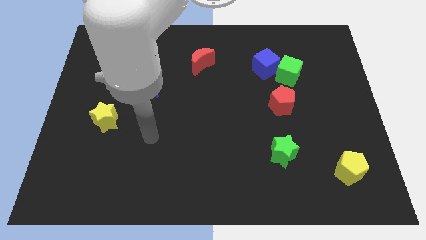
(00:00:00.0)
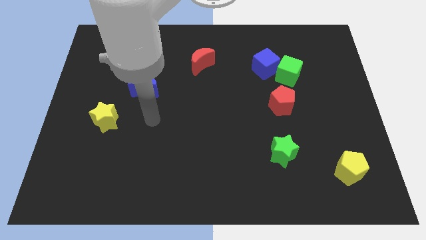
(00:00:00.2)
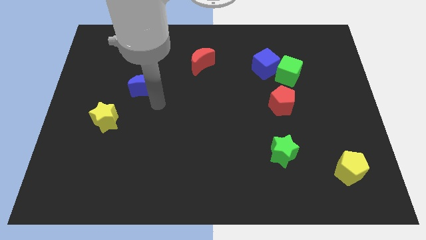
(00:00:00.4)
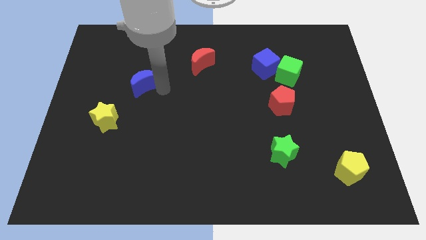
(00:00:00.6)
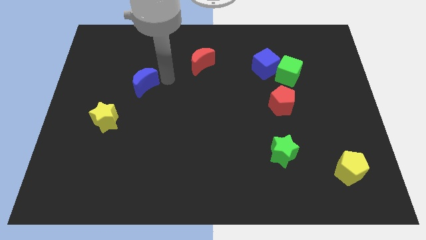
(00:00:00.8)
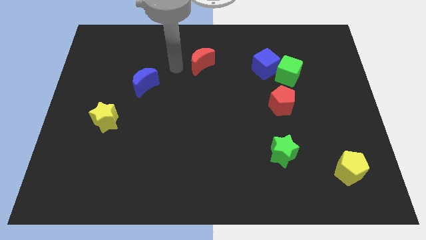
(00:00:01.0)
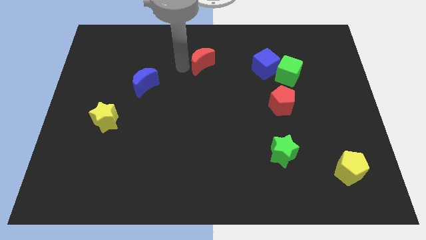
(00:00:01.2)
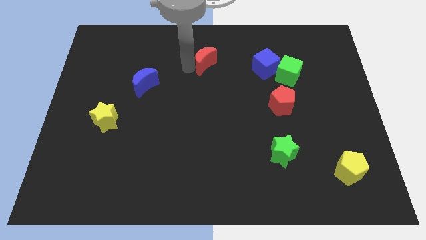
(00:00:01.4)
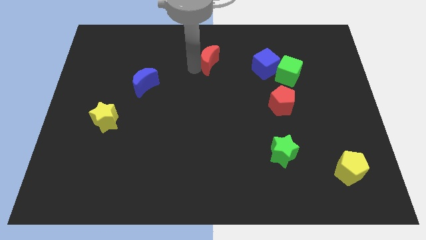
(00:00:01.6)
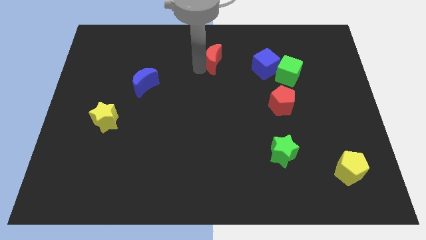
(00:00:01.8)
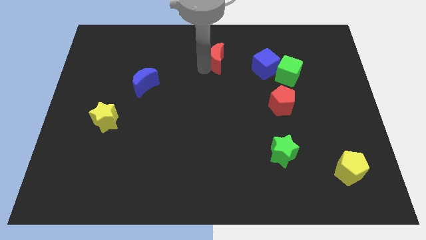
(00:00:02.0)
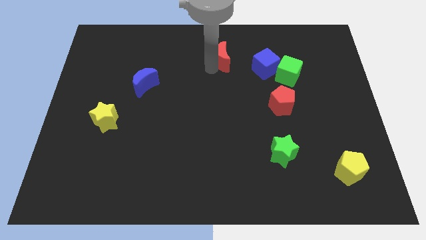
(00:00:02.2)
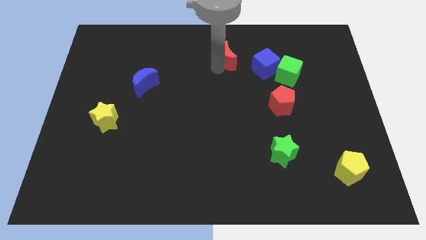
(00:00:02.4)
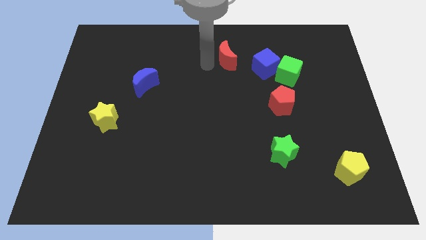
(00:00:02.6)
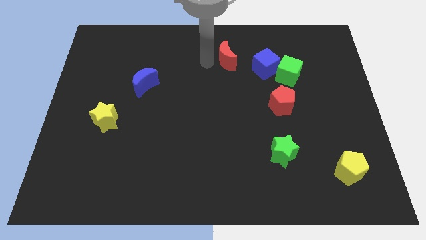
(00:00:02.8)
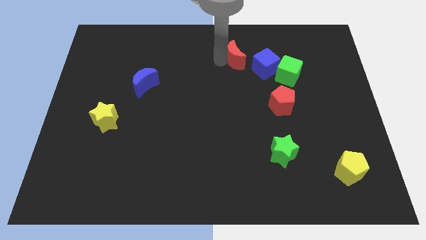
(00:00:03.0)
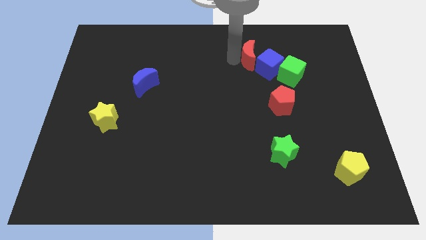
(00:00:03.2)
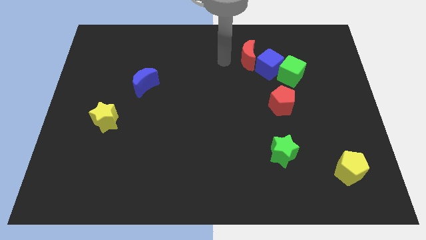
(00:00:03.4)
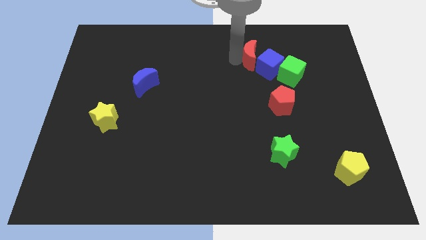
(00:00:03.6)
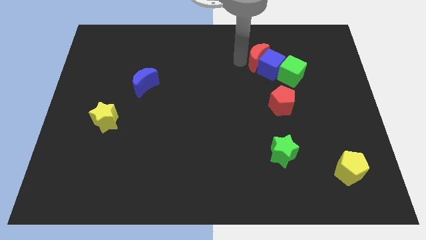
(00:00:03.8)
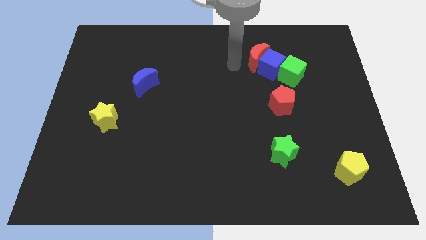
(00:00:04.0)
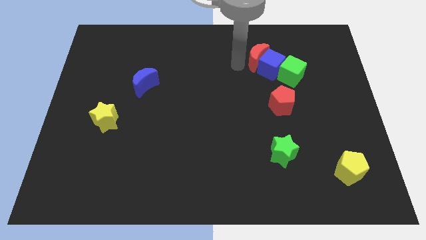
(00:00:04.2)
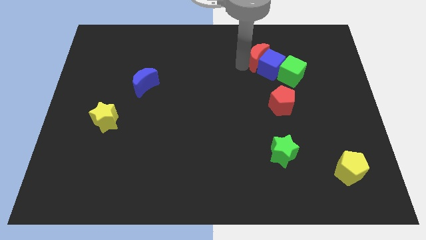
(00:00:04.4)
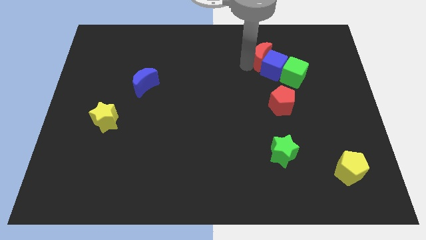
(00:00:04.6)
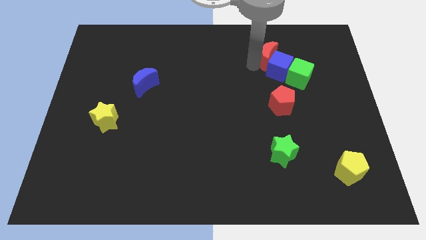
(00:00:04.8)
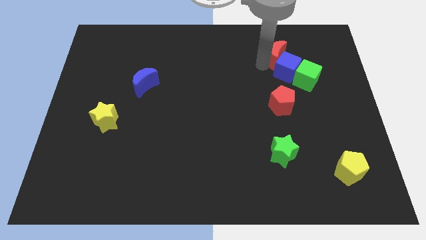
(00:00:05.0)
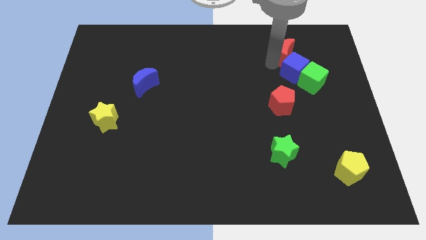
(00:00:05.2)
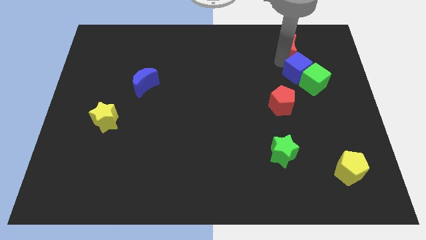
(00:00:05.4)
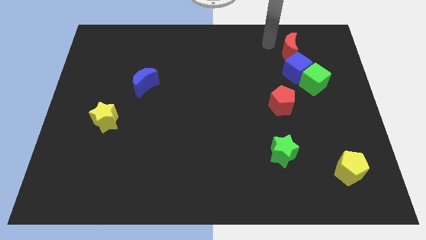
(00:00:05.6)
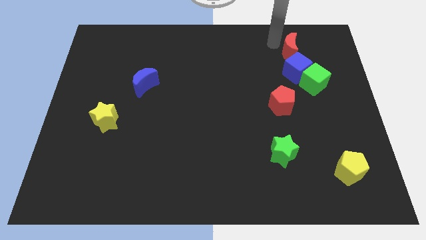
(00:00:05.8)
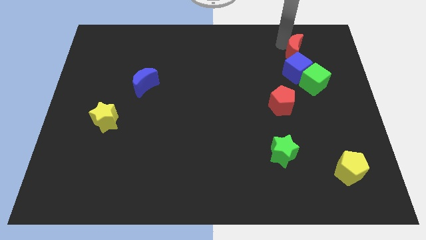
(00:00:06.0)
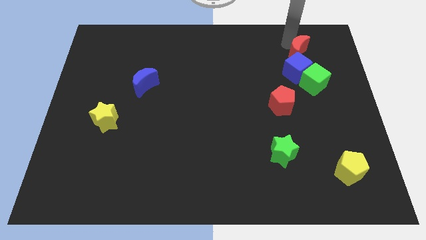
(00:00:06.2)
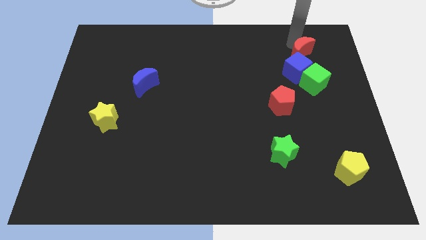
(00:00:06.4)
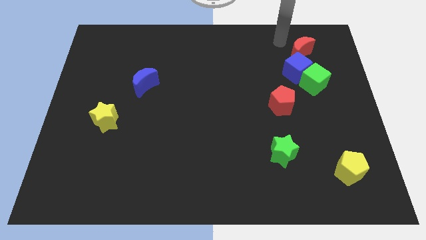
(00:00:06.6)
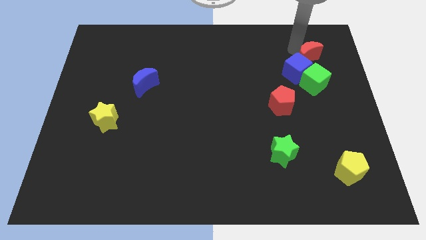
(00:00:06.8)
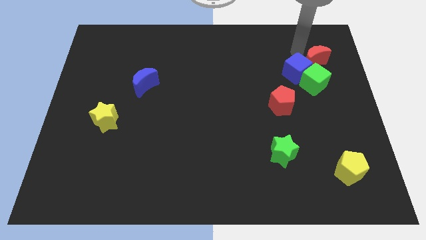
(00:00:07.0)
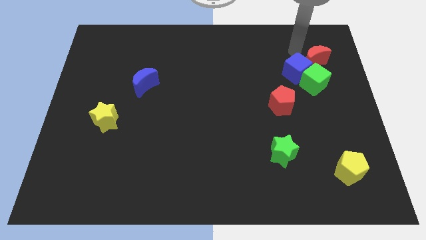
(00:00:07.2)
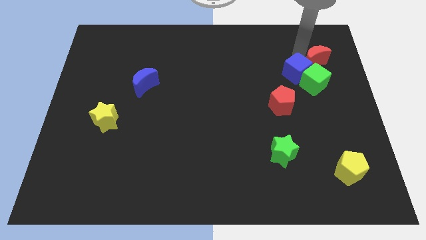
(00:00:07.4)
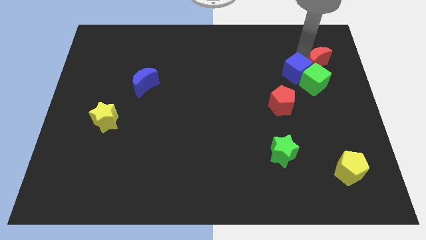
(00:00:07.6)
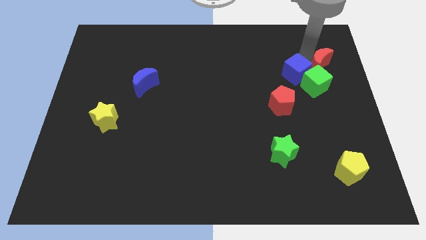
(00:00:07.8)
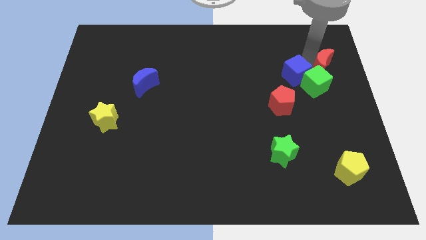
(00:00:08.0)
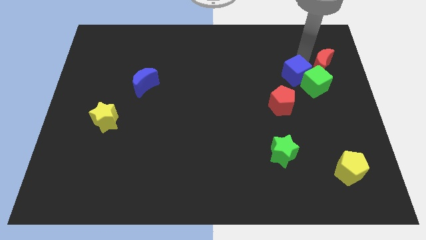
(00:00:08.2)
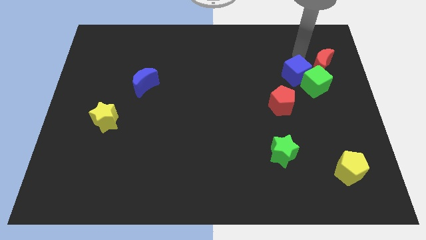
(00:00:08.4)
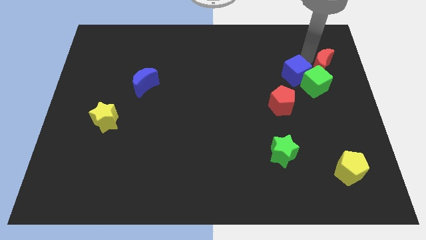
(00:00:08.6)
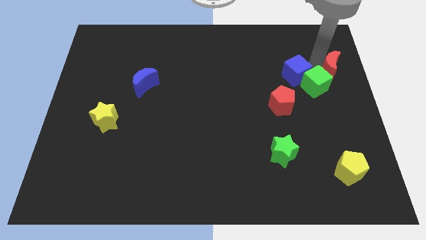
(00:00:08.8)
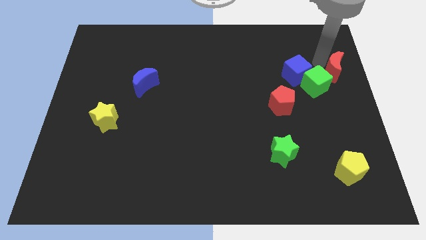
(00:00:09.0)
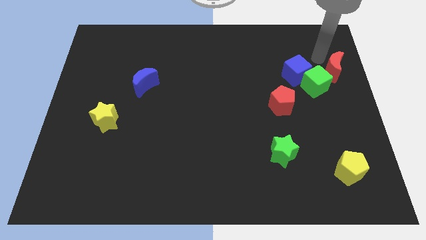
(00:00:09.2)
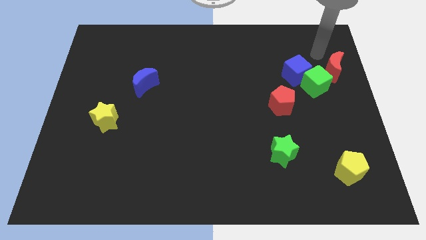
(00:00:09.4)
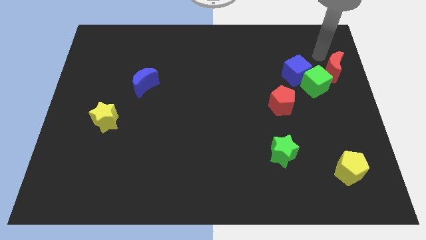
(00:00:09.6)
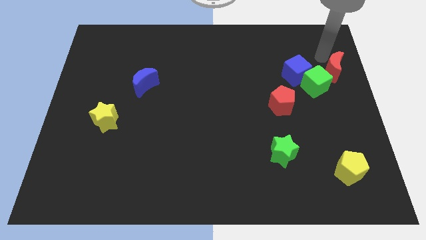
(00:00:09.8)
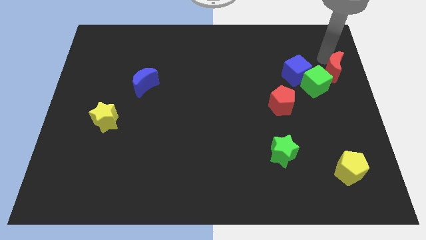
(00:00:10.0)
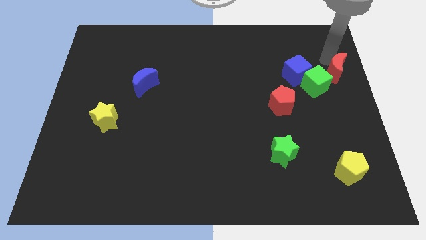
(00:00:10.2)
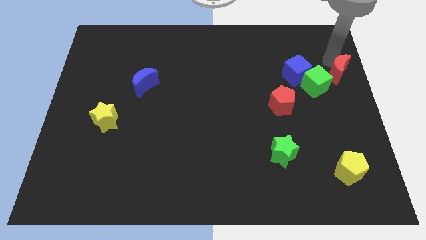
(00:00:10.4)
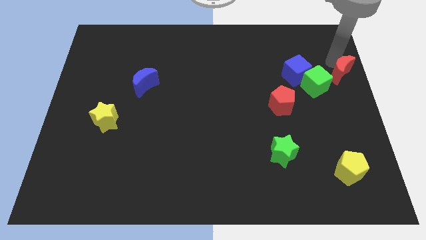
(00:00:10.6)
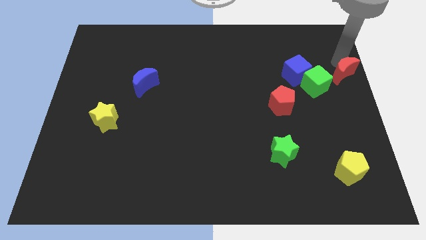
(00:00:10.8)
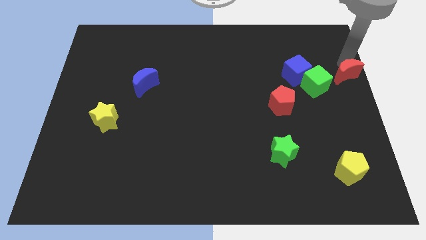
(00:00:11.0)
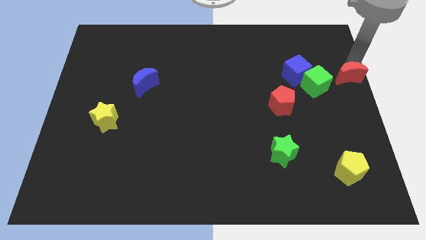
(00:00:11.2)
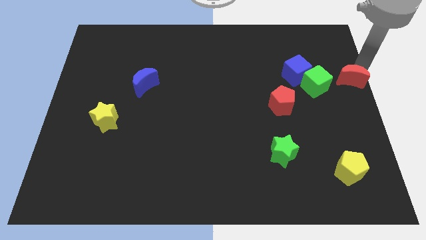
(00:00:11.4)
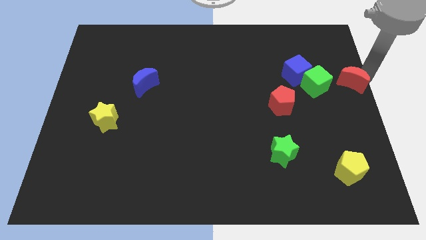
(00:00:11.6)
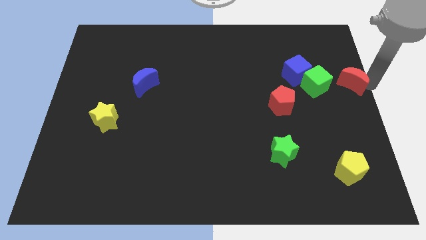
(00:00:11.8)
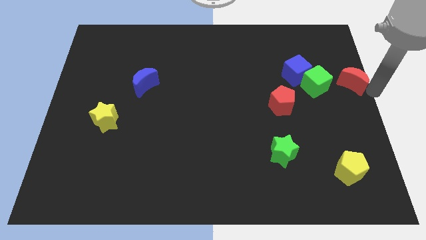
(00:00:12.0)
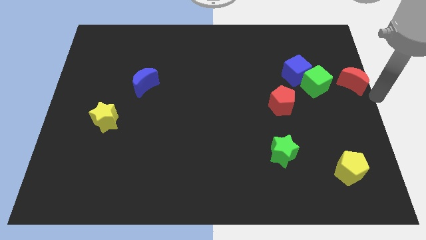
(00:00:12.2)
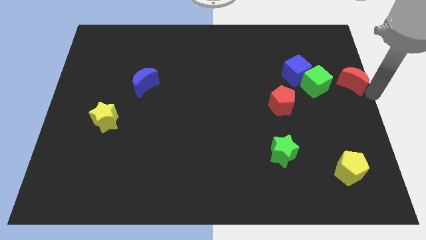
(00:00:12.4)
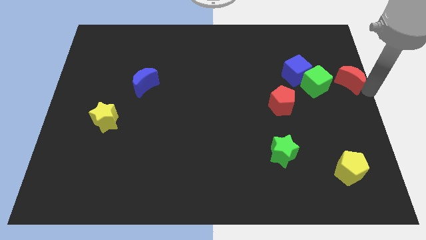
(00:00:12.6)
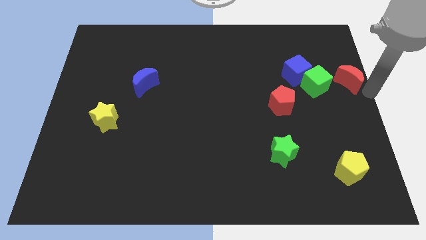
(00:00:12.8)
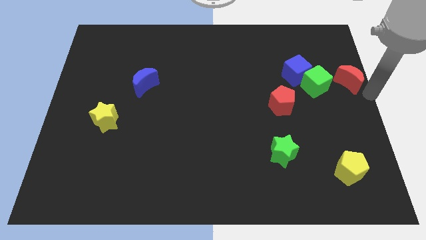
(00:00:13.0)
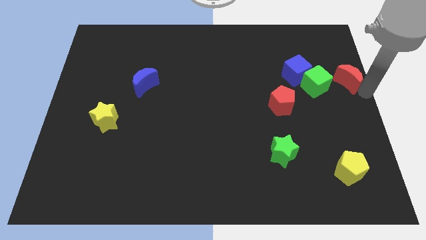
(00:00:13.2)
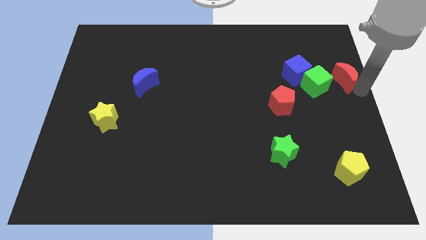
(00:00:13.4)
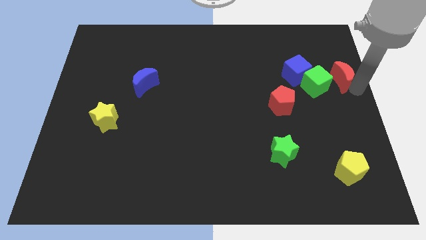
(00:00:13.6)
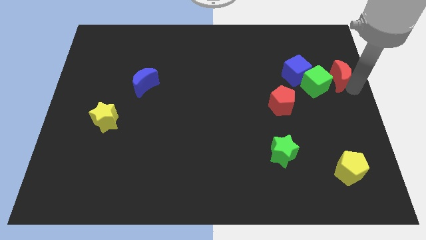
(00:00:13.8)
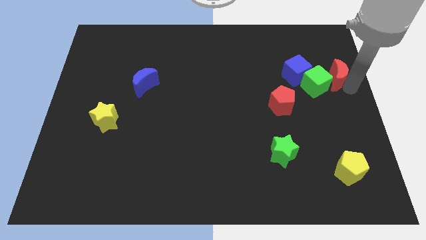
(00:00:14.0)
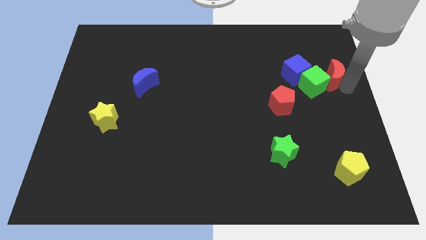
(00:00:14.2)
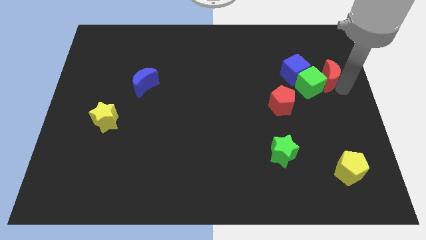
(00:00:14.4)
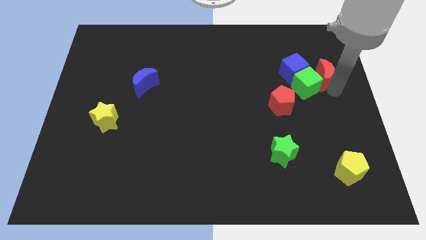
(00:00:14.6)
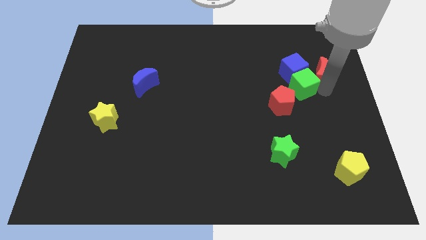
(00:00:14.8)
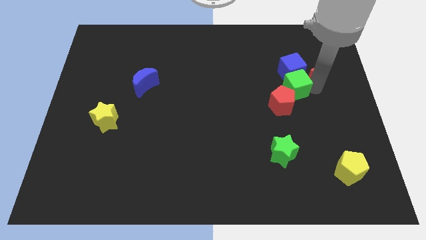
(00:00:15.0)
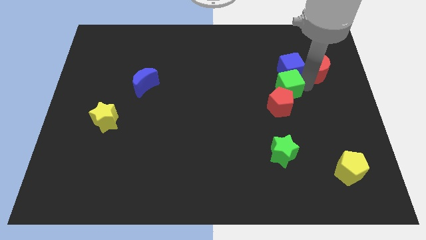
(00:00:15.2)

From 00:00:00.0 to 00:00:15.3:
put the red moon to the right side of the blue cube

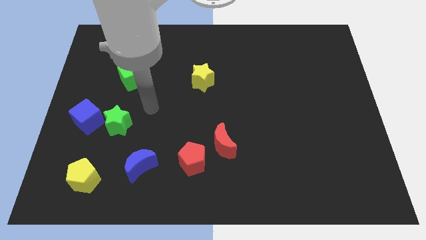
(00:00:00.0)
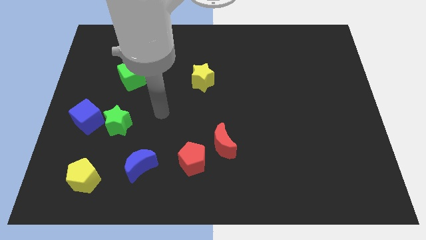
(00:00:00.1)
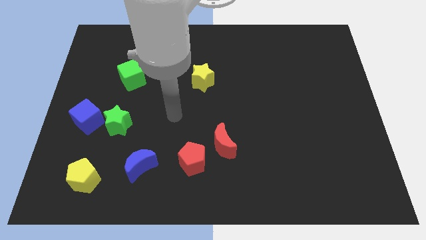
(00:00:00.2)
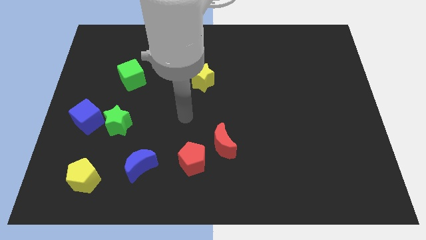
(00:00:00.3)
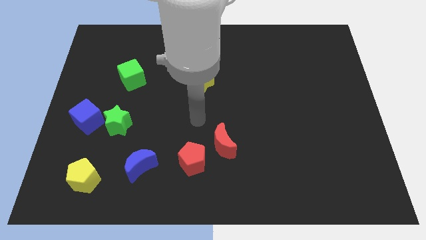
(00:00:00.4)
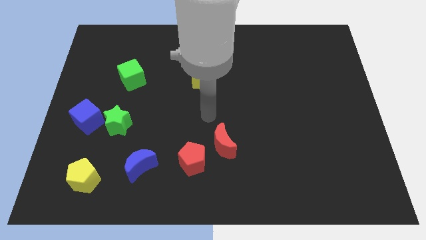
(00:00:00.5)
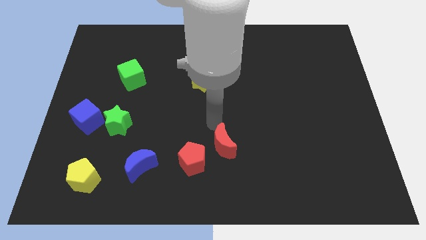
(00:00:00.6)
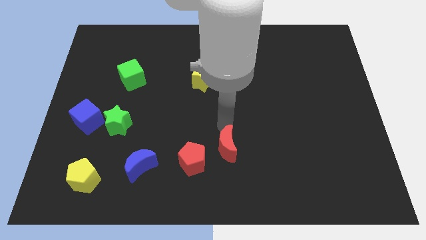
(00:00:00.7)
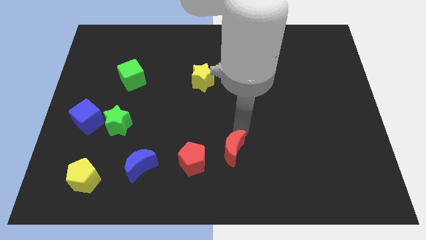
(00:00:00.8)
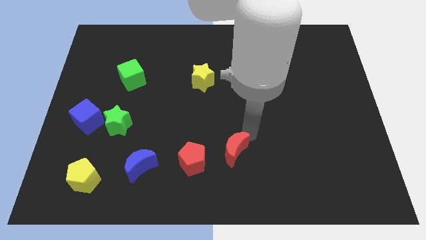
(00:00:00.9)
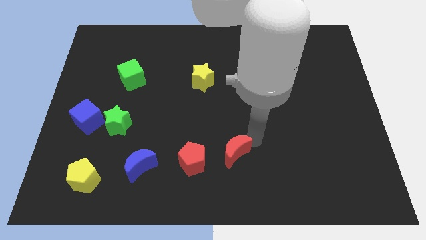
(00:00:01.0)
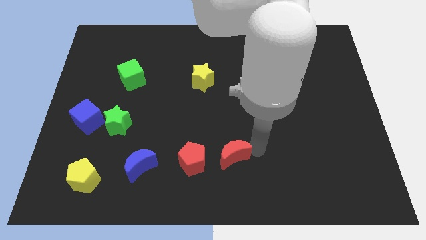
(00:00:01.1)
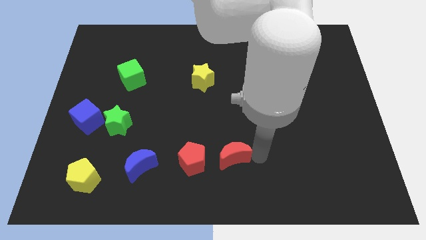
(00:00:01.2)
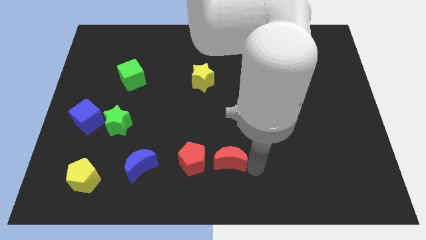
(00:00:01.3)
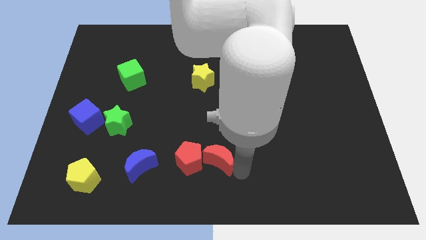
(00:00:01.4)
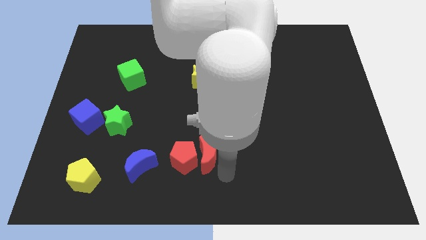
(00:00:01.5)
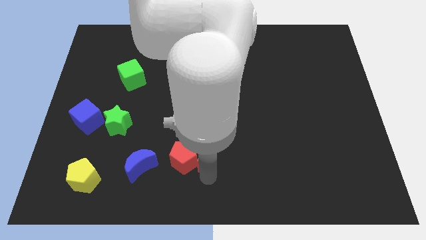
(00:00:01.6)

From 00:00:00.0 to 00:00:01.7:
move the red pentagon to the top right of the blue moon
